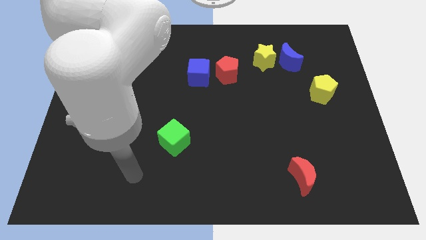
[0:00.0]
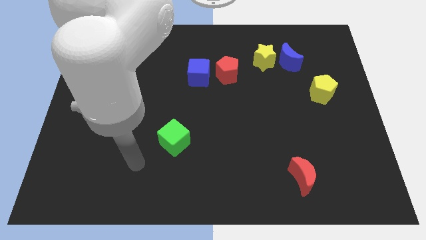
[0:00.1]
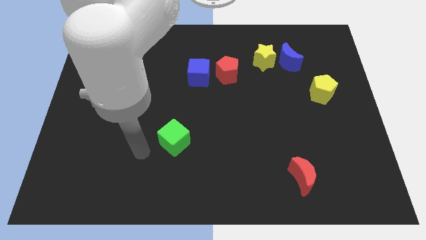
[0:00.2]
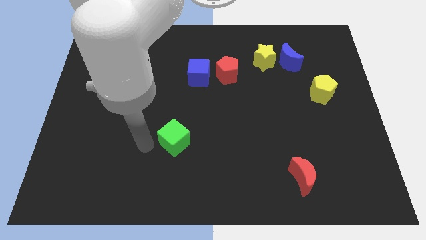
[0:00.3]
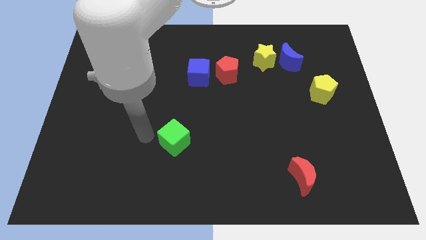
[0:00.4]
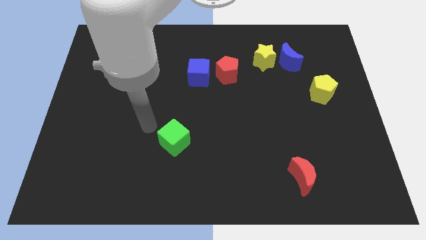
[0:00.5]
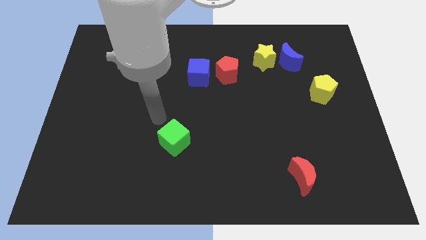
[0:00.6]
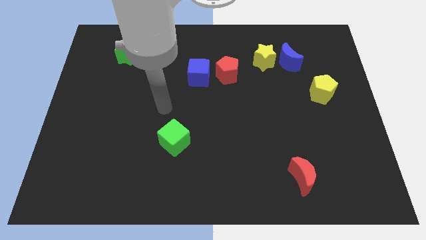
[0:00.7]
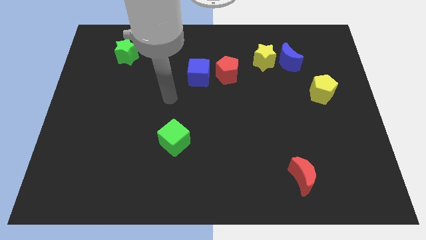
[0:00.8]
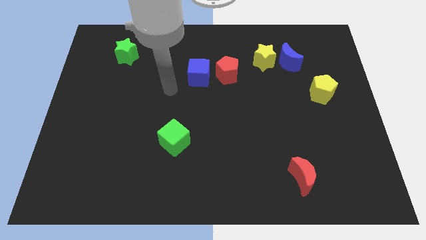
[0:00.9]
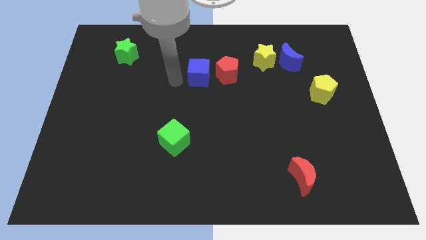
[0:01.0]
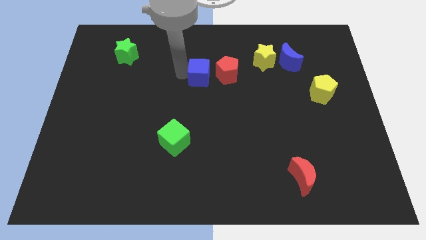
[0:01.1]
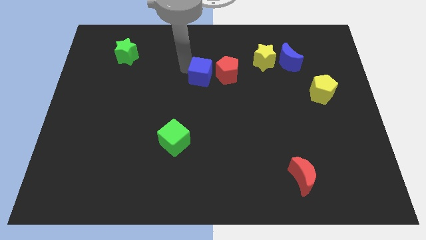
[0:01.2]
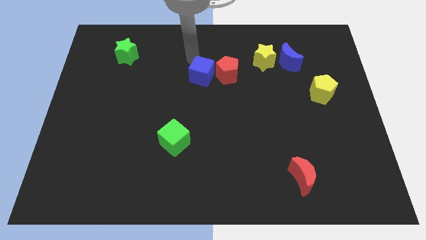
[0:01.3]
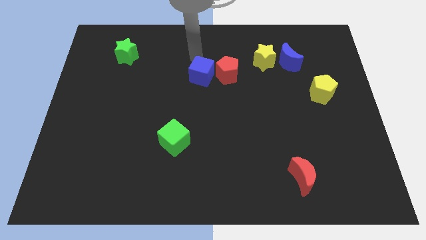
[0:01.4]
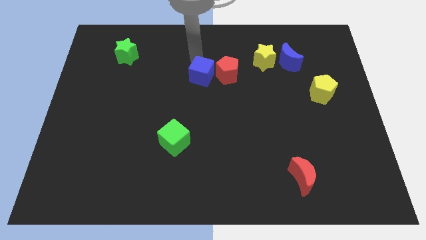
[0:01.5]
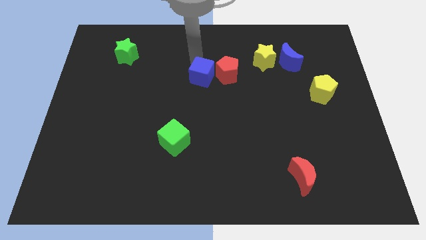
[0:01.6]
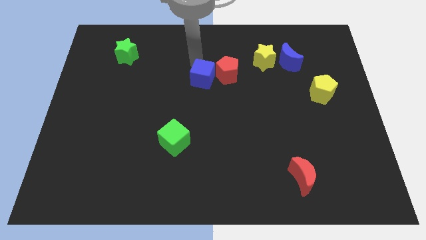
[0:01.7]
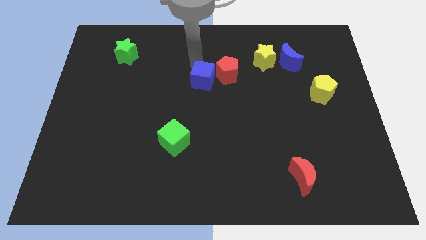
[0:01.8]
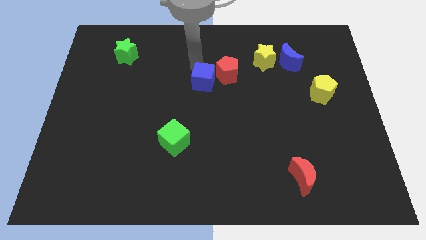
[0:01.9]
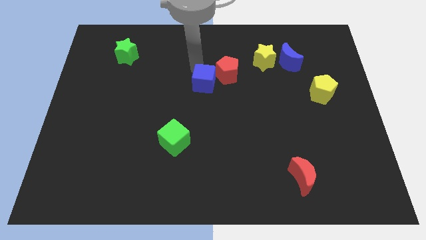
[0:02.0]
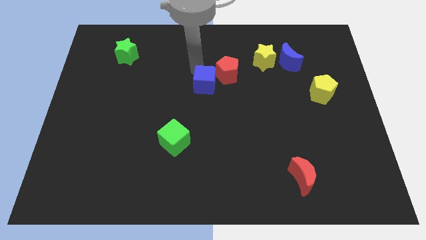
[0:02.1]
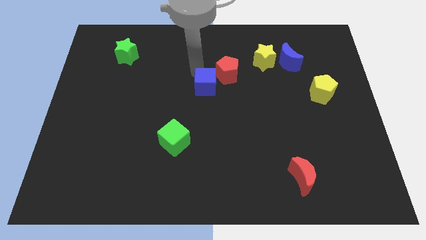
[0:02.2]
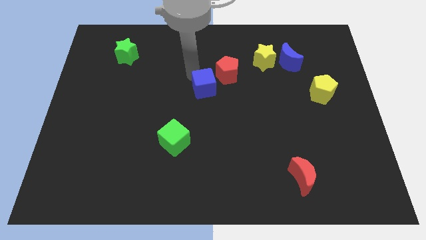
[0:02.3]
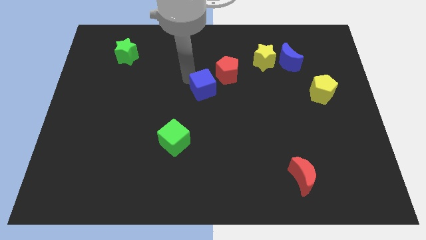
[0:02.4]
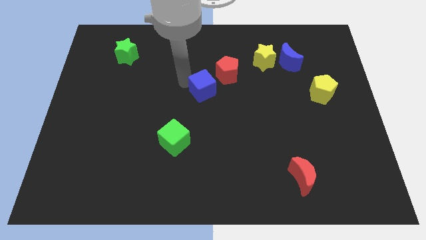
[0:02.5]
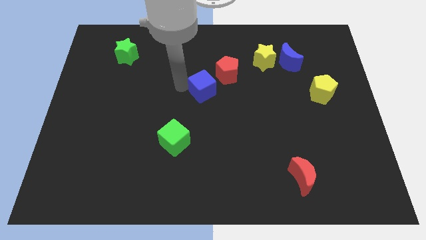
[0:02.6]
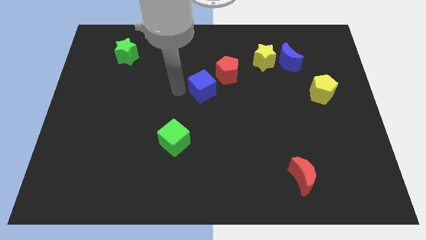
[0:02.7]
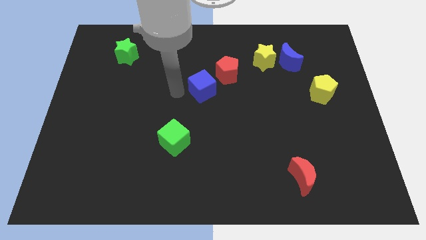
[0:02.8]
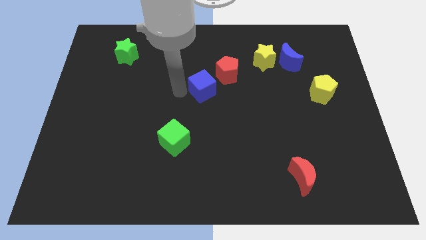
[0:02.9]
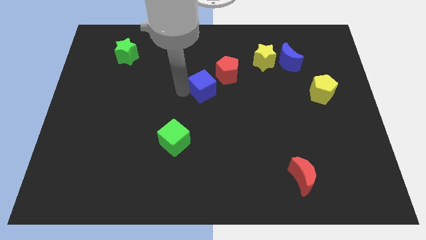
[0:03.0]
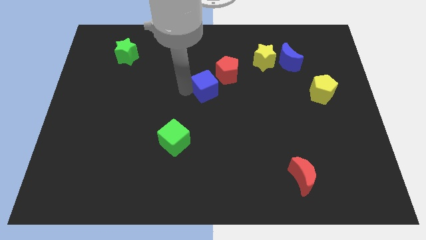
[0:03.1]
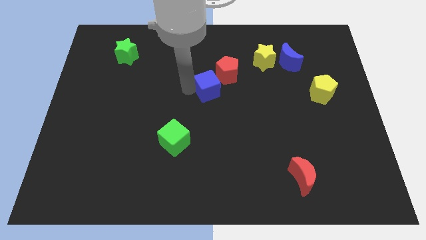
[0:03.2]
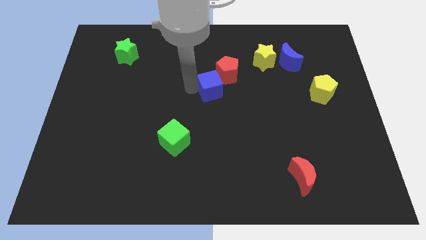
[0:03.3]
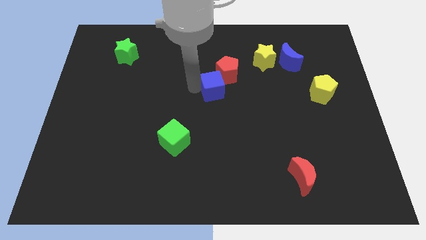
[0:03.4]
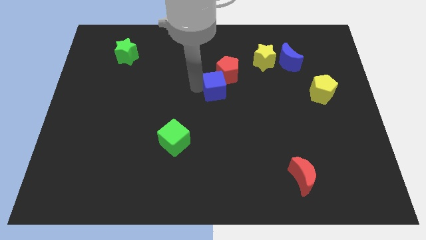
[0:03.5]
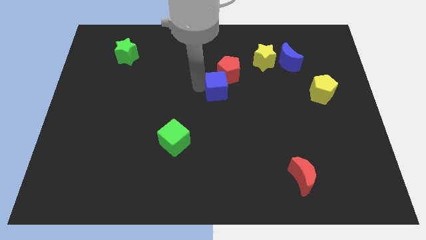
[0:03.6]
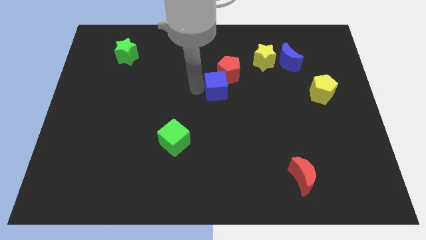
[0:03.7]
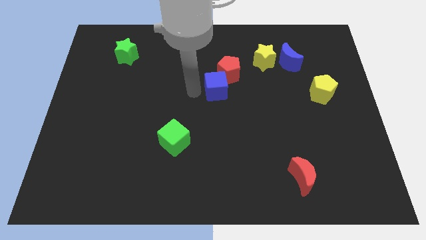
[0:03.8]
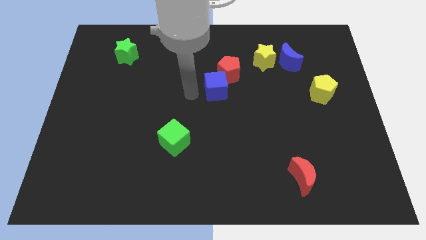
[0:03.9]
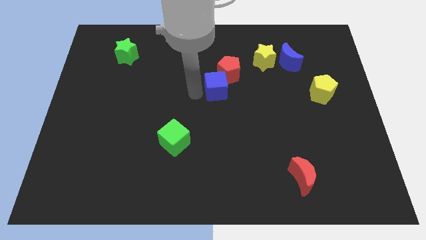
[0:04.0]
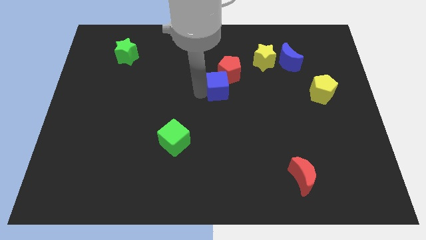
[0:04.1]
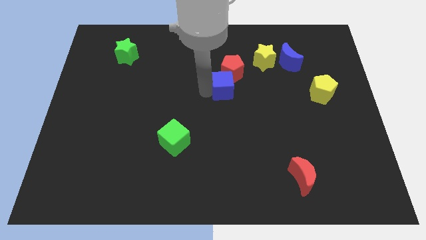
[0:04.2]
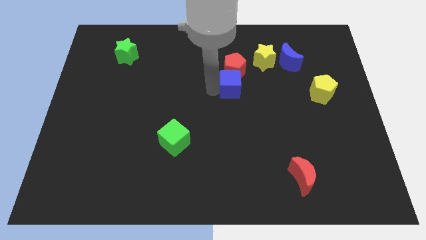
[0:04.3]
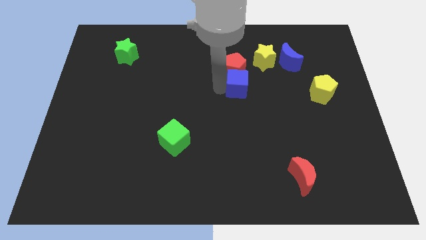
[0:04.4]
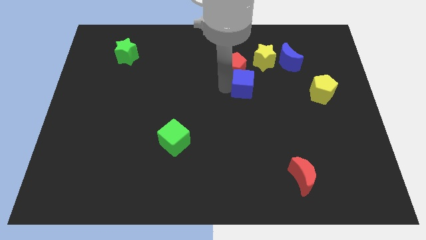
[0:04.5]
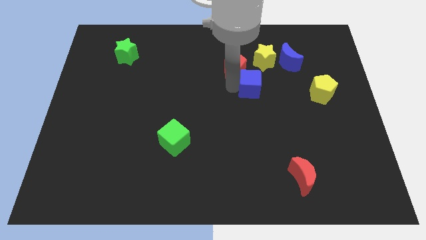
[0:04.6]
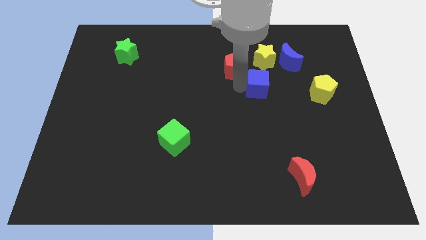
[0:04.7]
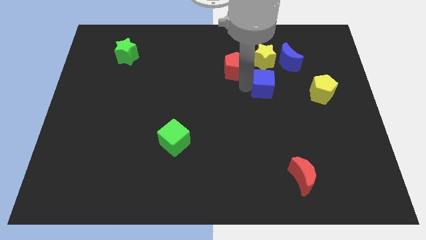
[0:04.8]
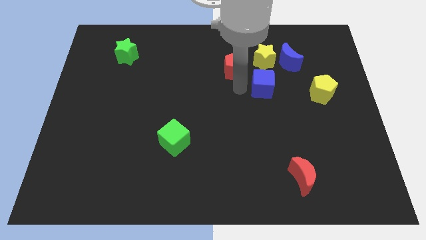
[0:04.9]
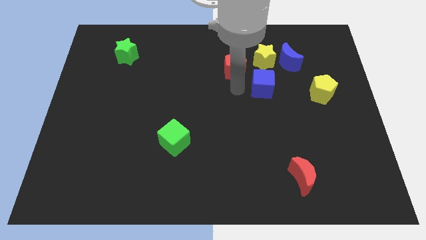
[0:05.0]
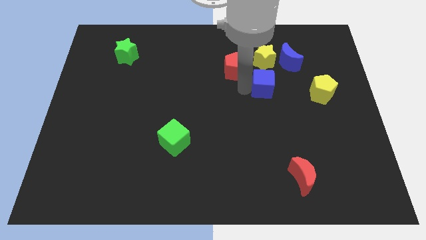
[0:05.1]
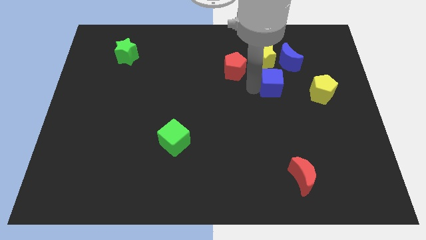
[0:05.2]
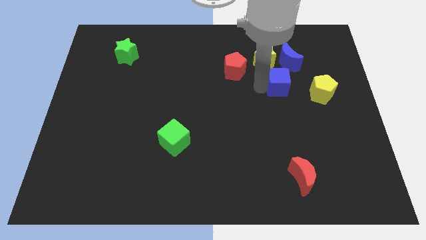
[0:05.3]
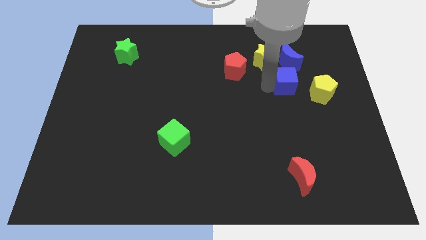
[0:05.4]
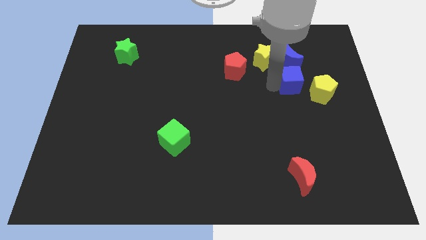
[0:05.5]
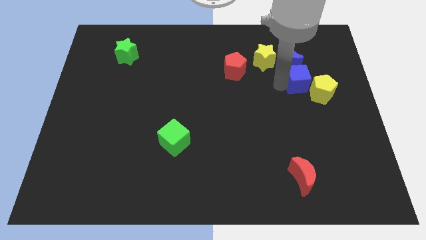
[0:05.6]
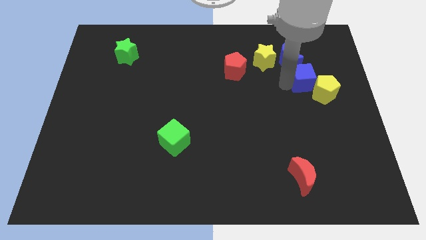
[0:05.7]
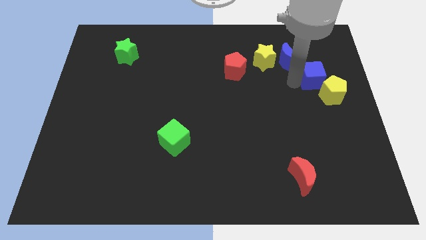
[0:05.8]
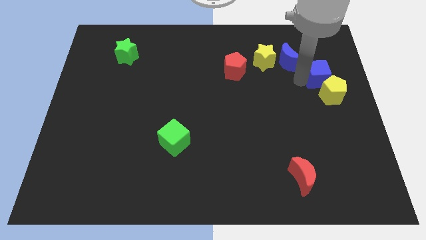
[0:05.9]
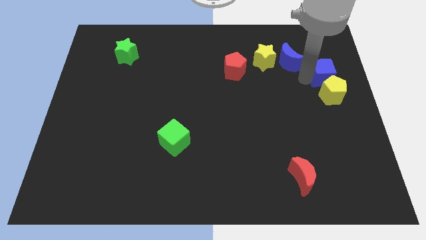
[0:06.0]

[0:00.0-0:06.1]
move the blue cube to the right side of the board

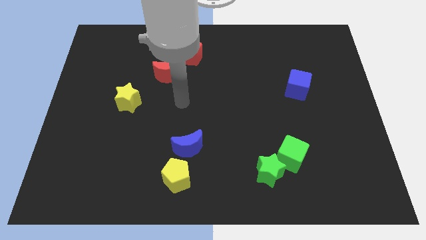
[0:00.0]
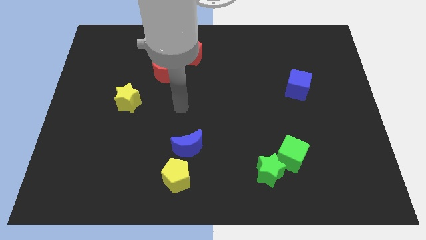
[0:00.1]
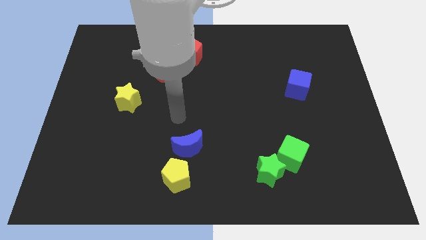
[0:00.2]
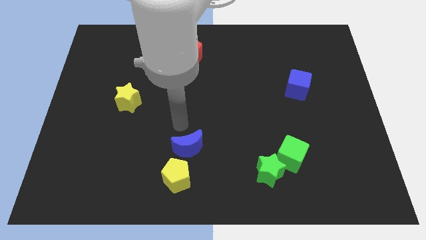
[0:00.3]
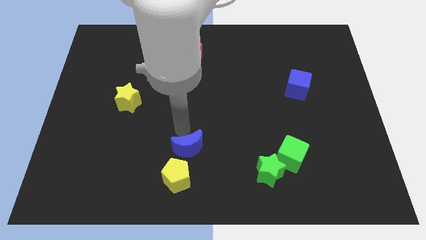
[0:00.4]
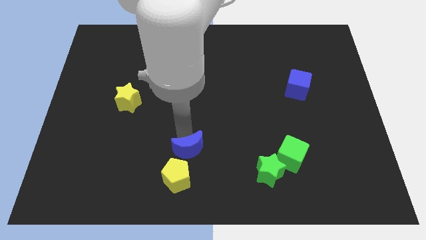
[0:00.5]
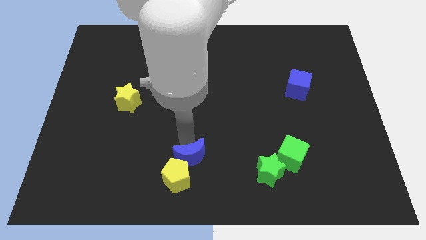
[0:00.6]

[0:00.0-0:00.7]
push the blue moon to the bottom
